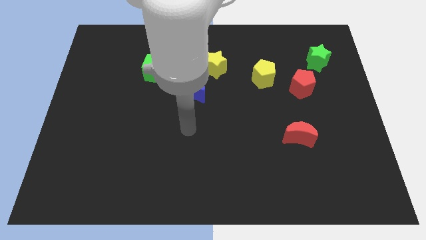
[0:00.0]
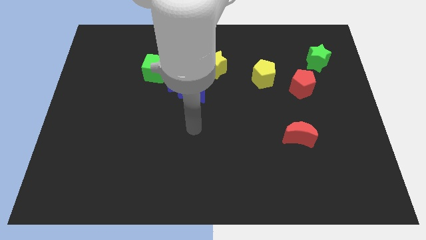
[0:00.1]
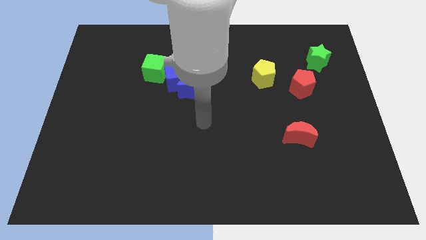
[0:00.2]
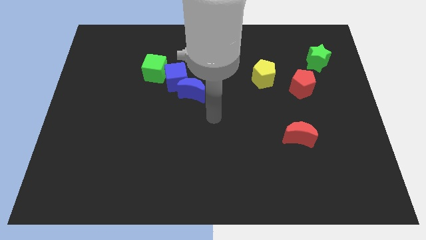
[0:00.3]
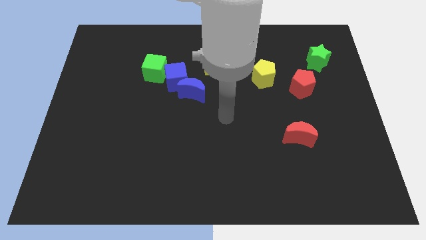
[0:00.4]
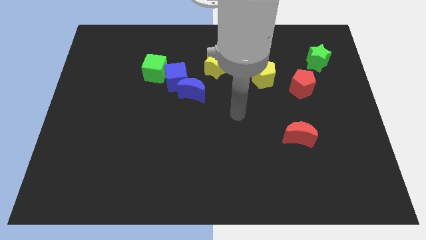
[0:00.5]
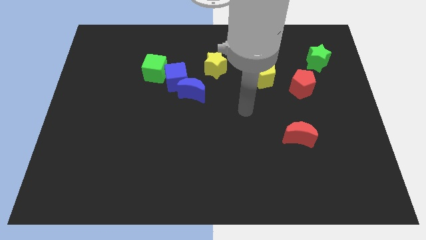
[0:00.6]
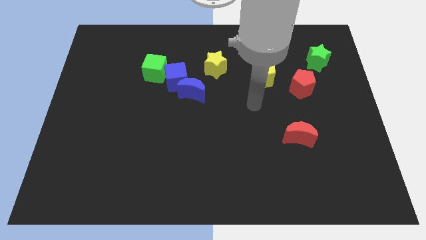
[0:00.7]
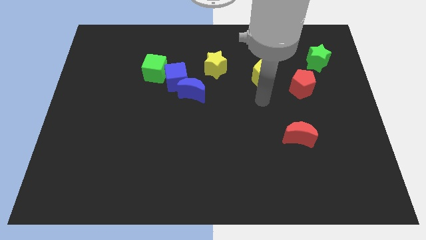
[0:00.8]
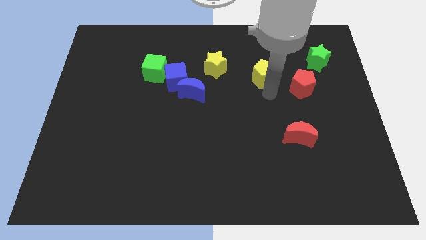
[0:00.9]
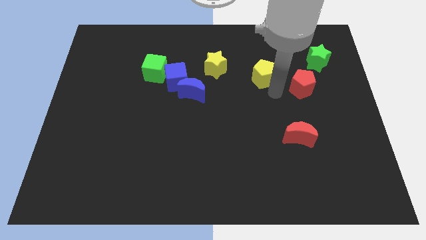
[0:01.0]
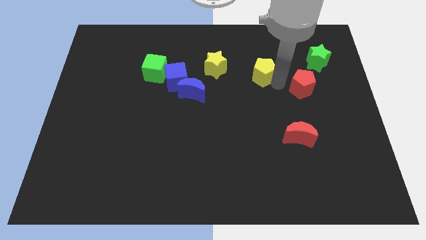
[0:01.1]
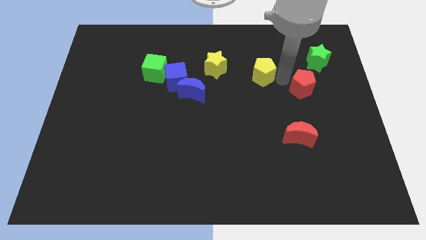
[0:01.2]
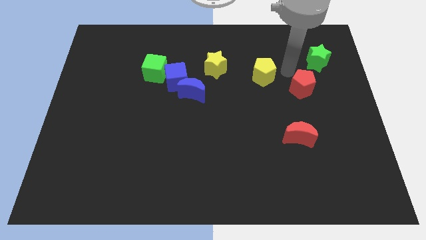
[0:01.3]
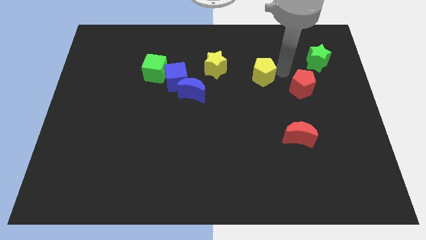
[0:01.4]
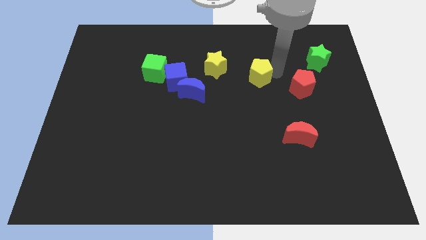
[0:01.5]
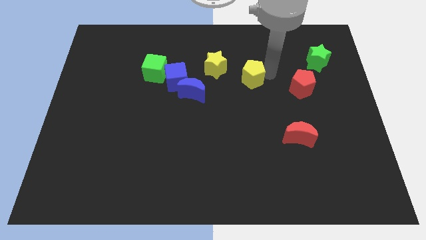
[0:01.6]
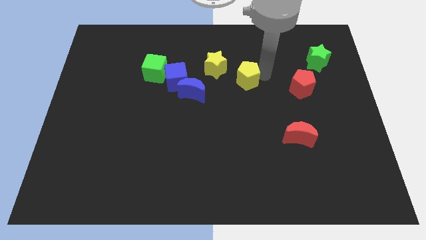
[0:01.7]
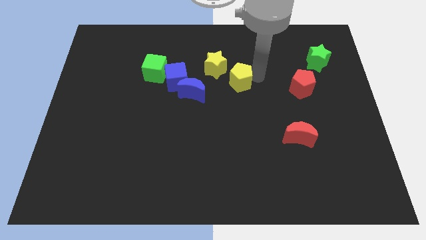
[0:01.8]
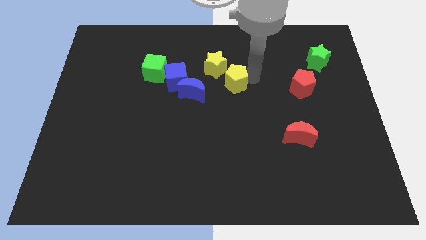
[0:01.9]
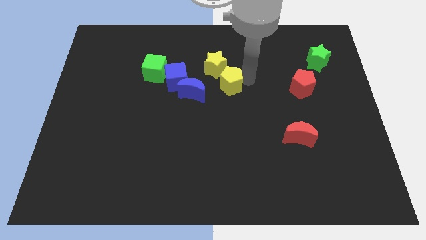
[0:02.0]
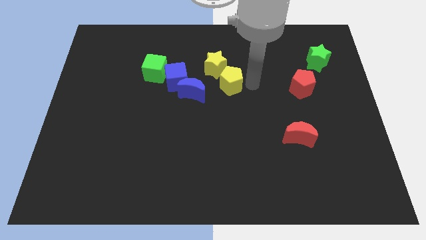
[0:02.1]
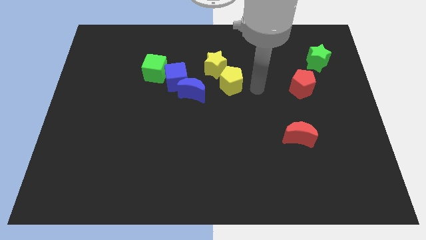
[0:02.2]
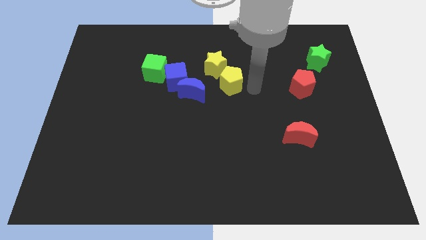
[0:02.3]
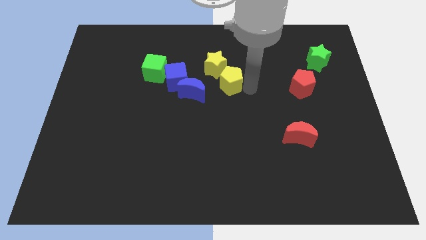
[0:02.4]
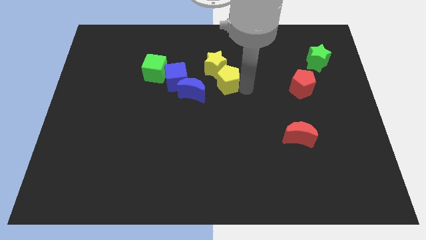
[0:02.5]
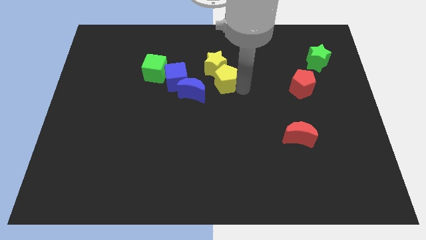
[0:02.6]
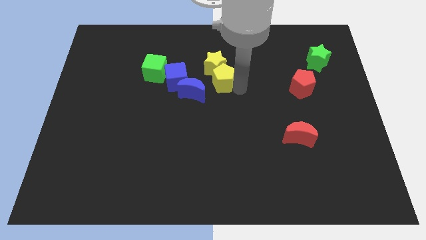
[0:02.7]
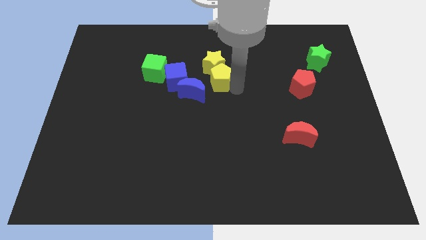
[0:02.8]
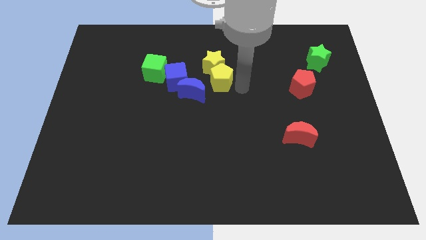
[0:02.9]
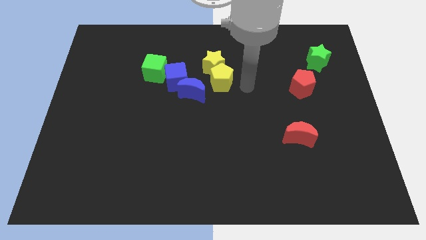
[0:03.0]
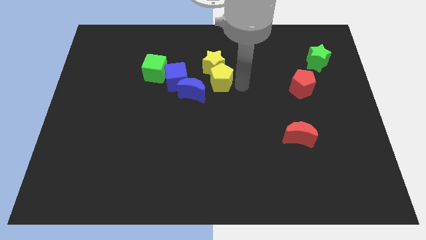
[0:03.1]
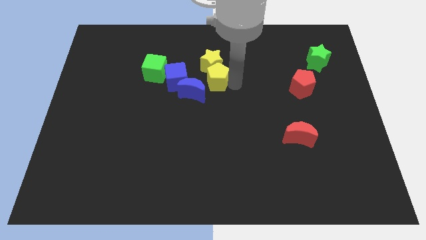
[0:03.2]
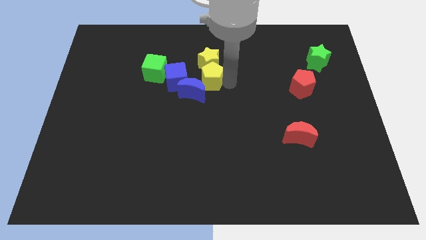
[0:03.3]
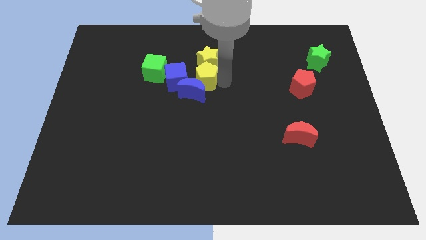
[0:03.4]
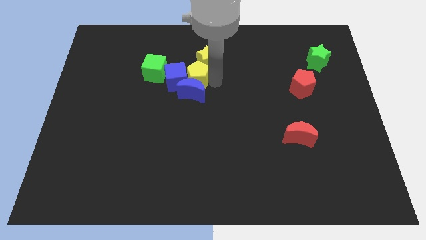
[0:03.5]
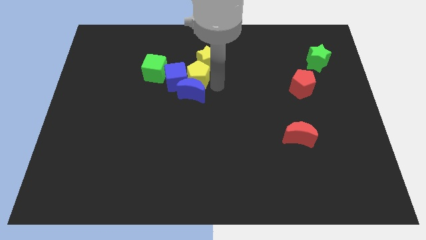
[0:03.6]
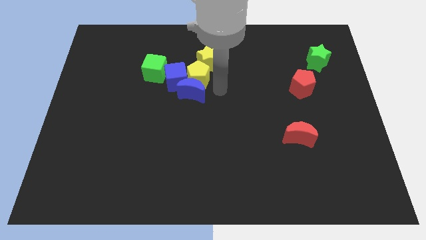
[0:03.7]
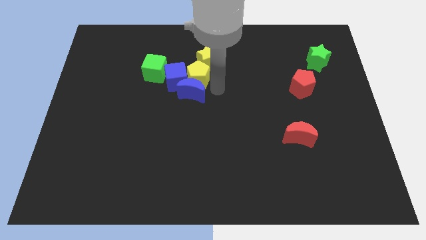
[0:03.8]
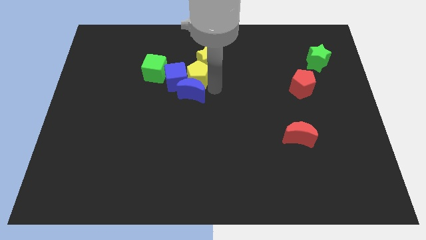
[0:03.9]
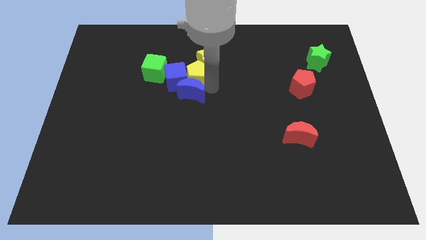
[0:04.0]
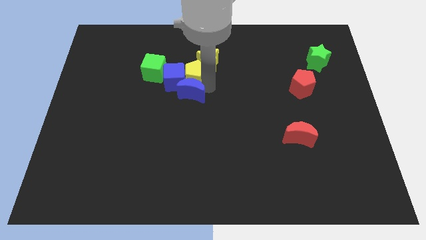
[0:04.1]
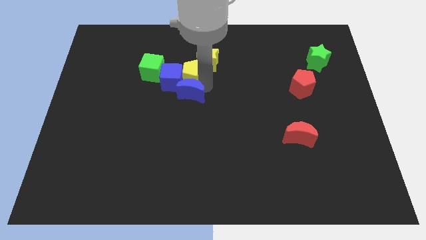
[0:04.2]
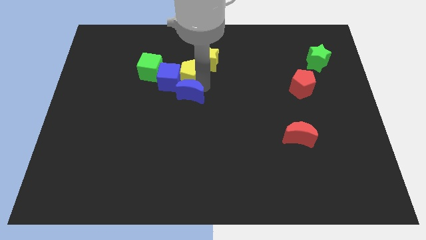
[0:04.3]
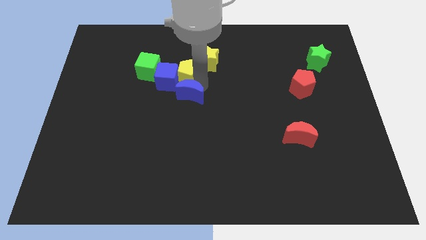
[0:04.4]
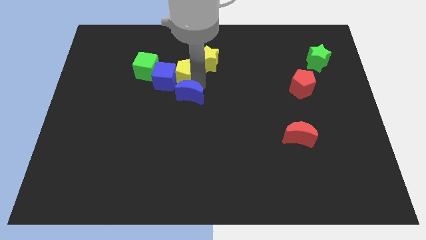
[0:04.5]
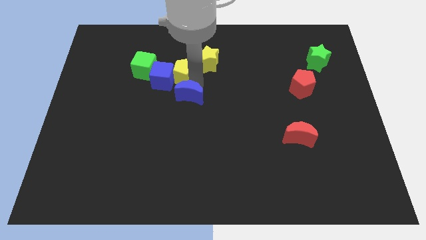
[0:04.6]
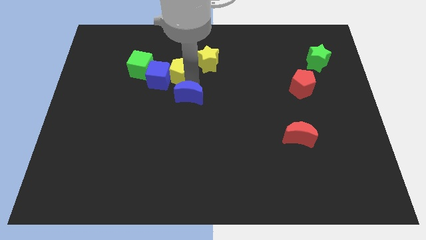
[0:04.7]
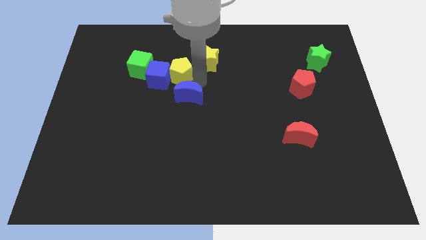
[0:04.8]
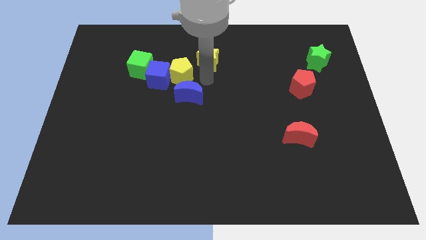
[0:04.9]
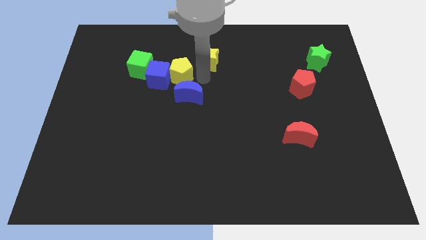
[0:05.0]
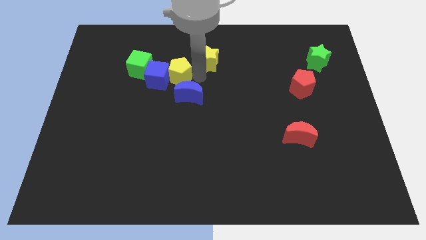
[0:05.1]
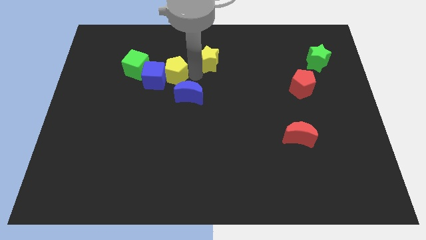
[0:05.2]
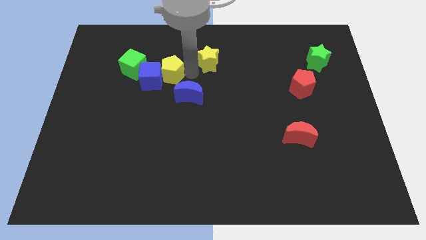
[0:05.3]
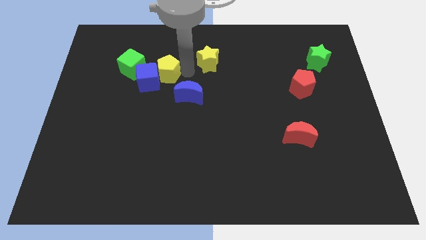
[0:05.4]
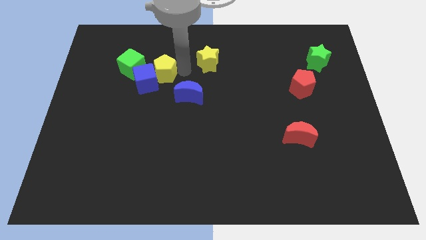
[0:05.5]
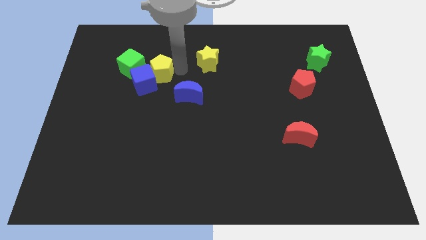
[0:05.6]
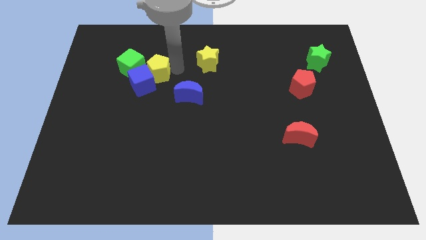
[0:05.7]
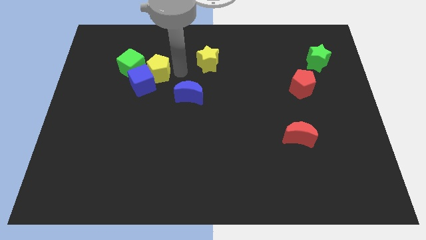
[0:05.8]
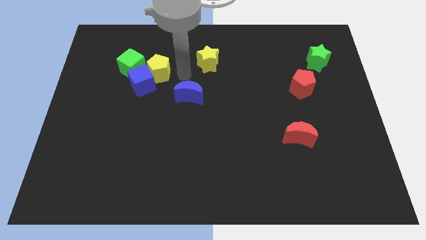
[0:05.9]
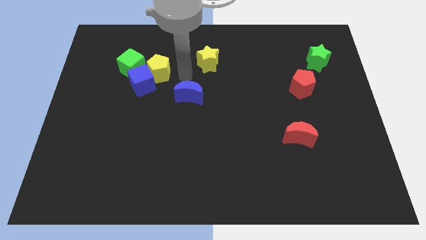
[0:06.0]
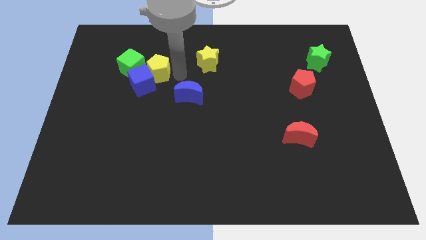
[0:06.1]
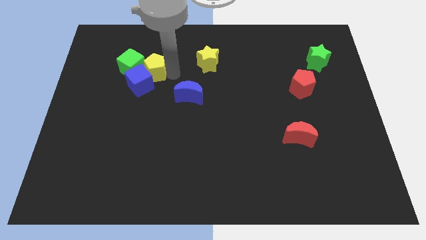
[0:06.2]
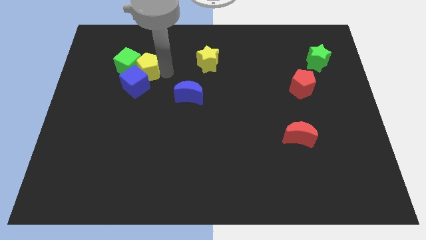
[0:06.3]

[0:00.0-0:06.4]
slide the yellow pentagon towards the green cube

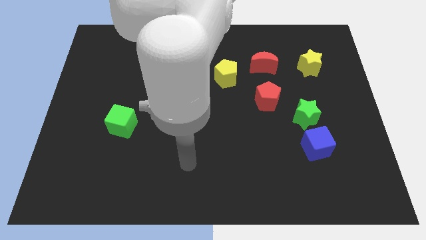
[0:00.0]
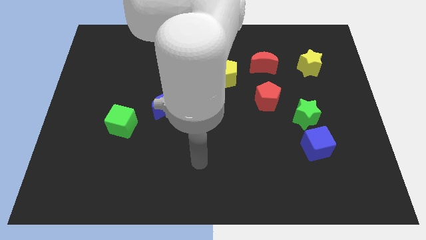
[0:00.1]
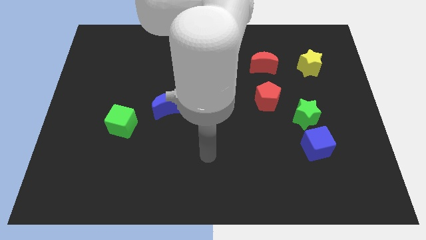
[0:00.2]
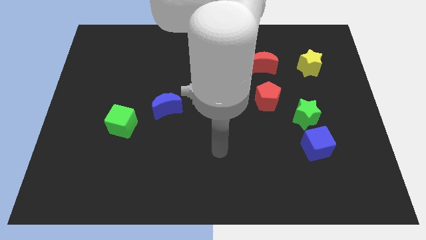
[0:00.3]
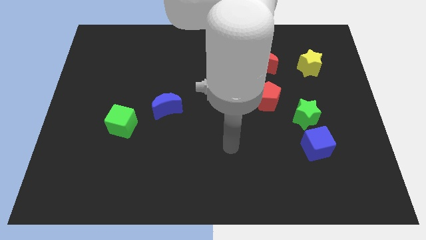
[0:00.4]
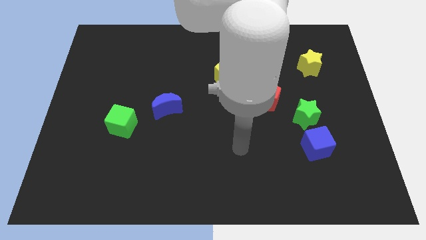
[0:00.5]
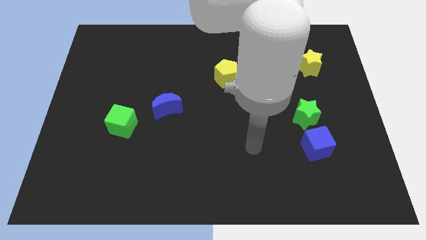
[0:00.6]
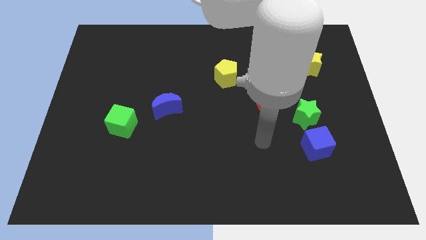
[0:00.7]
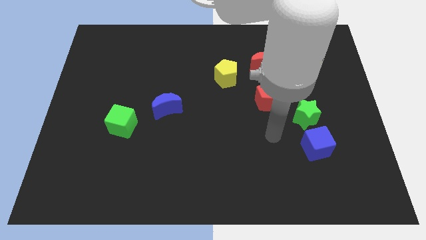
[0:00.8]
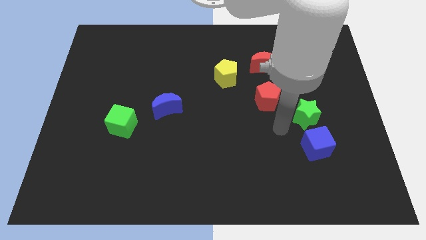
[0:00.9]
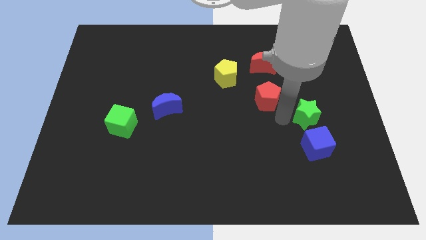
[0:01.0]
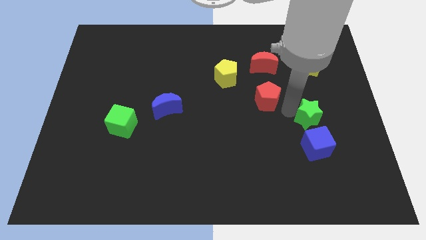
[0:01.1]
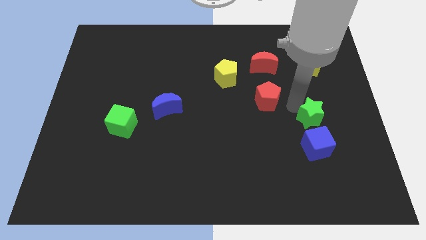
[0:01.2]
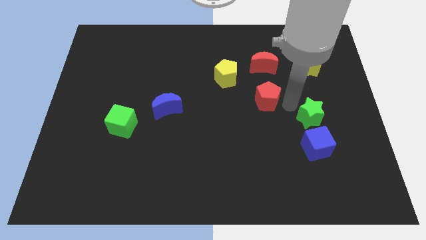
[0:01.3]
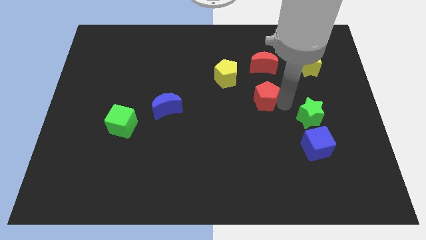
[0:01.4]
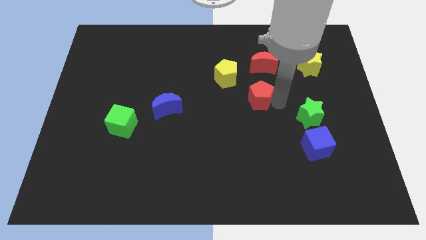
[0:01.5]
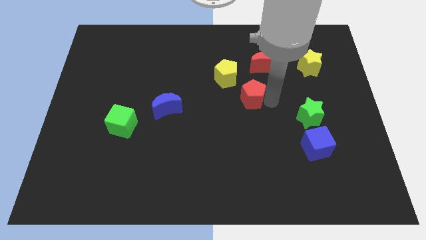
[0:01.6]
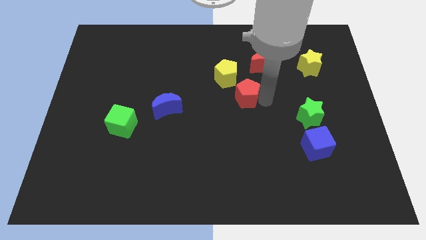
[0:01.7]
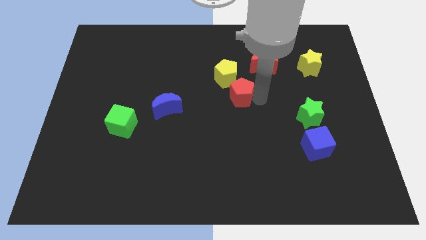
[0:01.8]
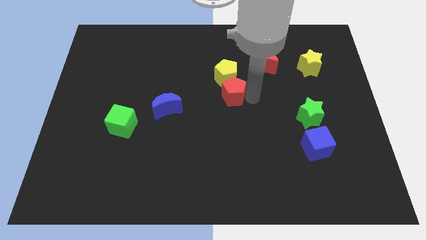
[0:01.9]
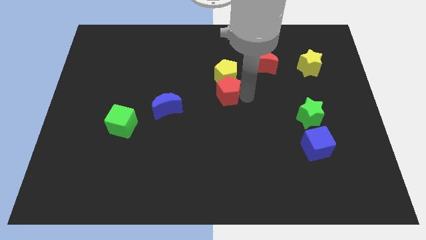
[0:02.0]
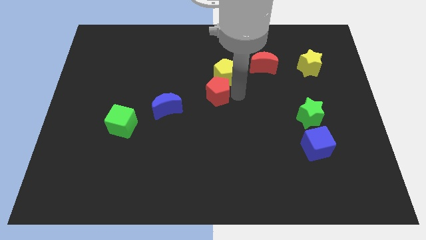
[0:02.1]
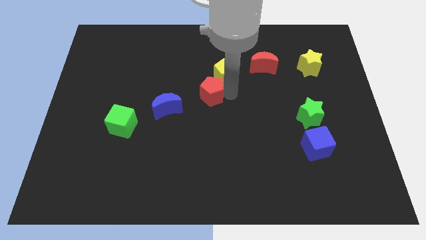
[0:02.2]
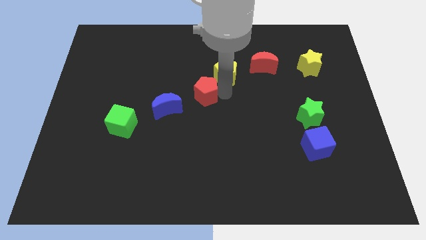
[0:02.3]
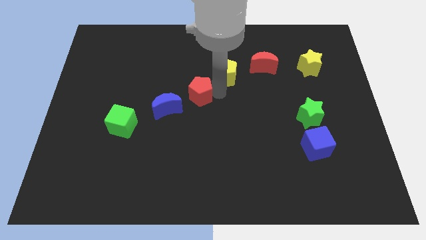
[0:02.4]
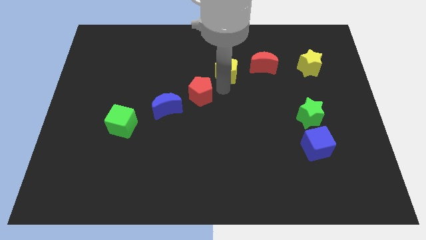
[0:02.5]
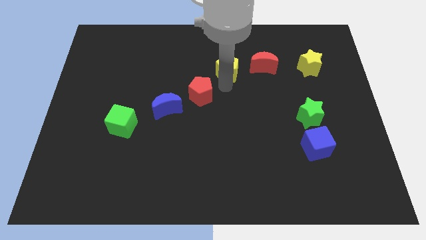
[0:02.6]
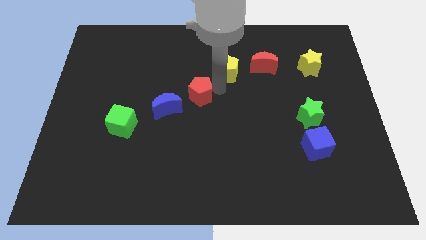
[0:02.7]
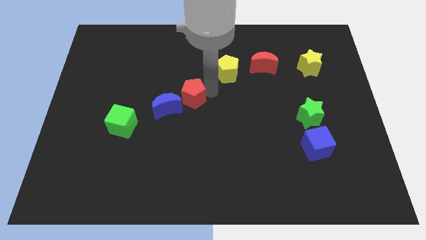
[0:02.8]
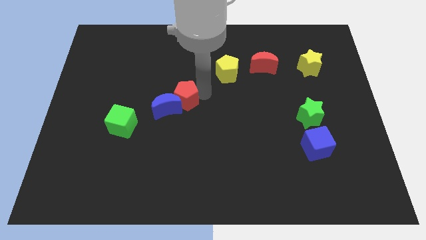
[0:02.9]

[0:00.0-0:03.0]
put the red pentagon next to the blue moon
